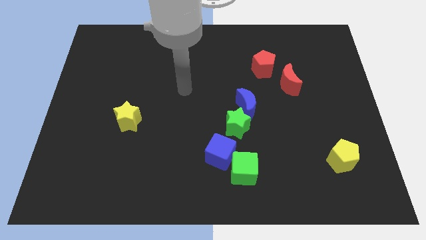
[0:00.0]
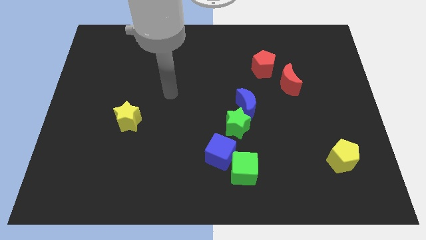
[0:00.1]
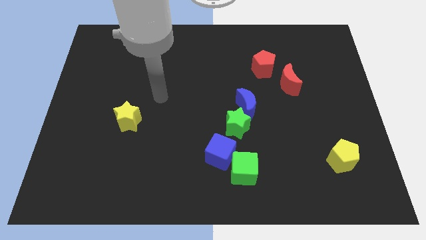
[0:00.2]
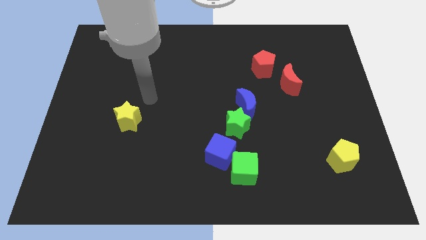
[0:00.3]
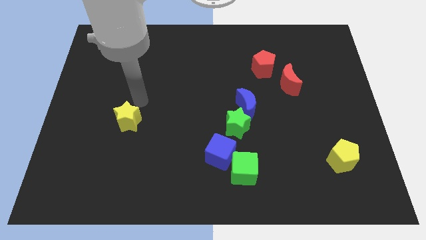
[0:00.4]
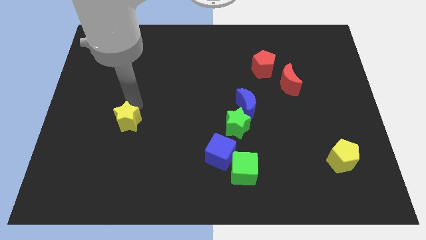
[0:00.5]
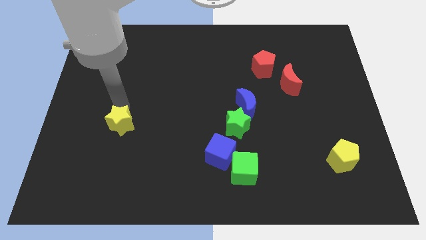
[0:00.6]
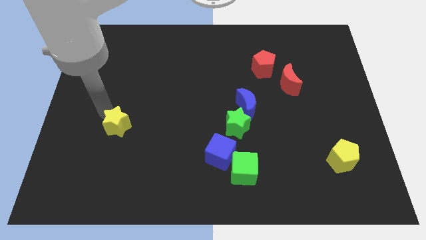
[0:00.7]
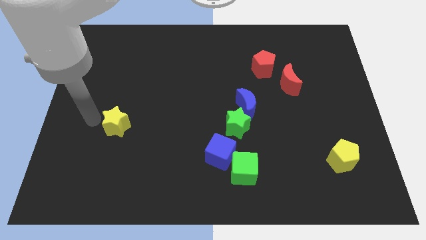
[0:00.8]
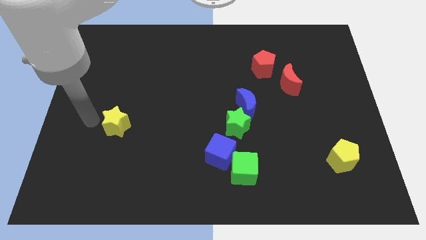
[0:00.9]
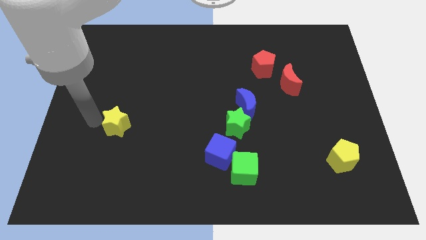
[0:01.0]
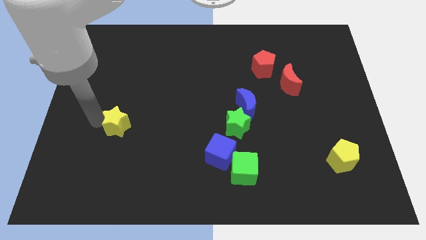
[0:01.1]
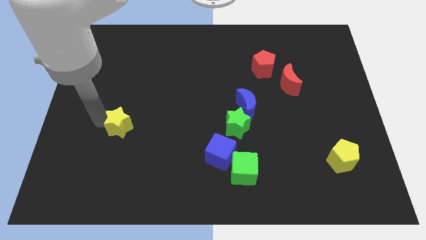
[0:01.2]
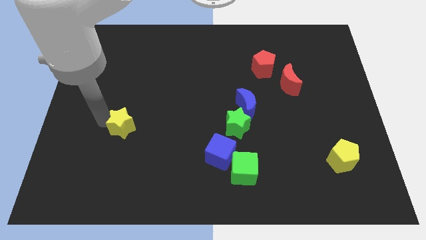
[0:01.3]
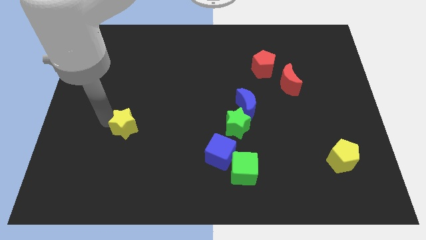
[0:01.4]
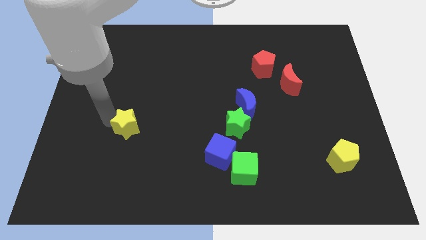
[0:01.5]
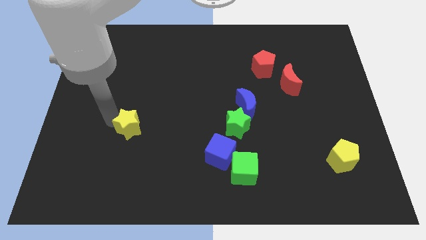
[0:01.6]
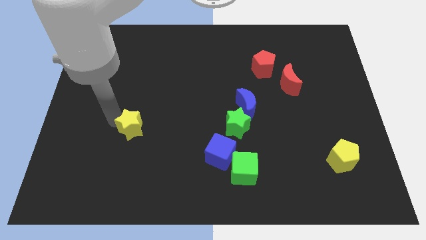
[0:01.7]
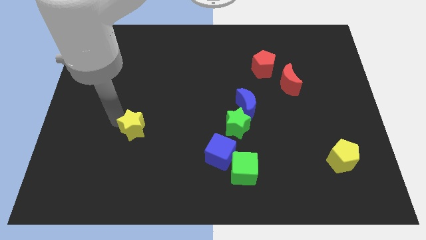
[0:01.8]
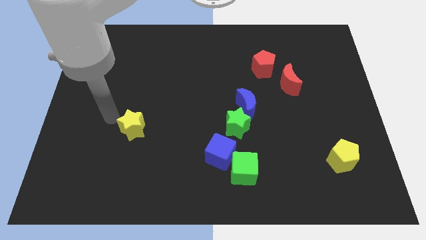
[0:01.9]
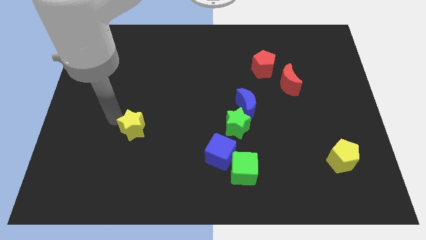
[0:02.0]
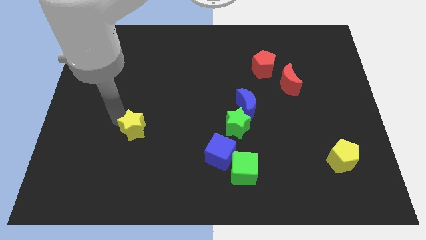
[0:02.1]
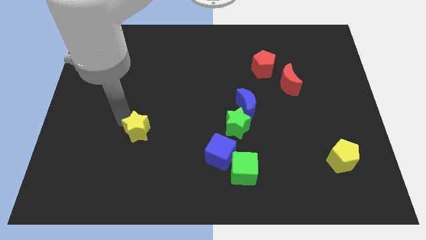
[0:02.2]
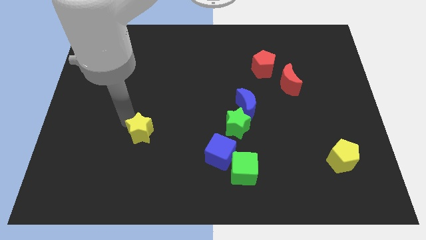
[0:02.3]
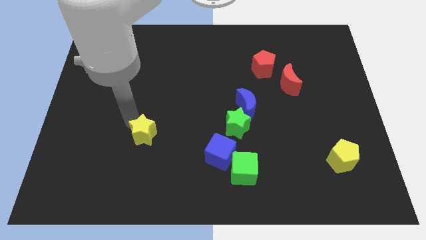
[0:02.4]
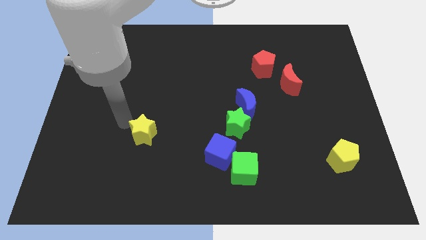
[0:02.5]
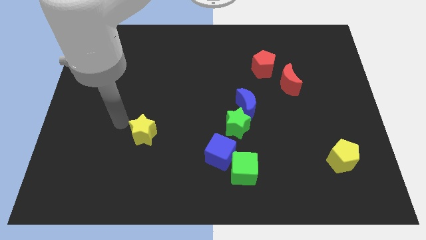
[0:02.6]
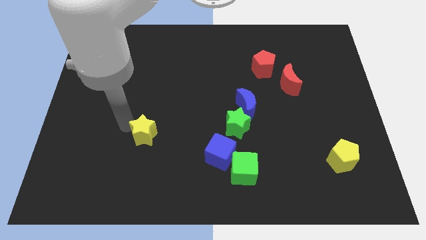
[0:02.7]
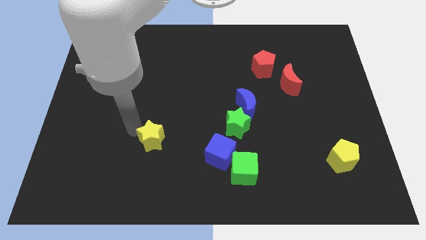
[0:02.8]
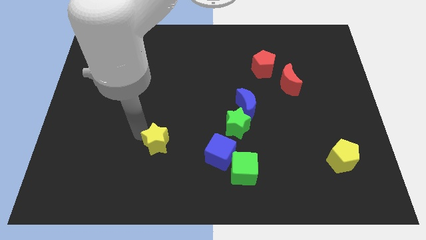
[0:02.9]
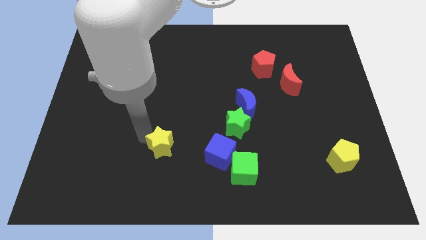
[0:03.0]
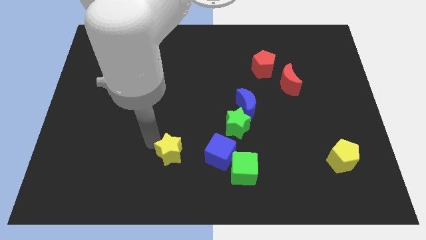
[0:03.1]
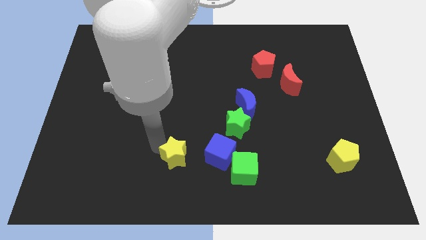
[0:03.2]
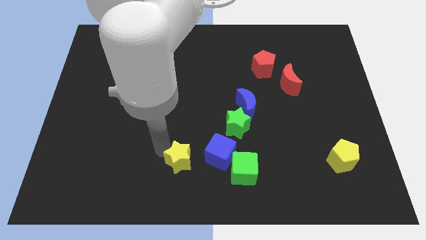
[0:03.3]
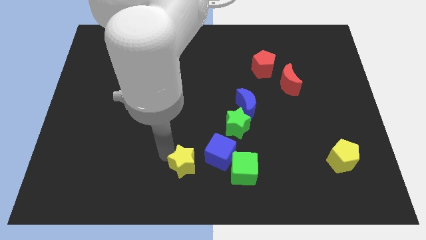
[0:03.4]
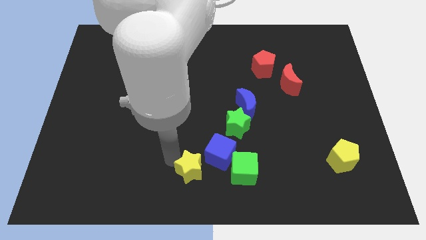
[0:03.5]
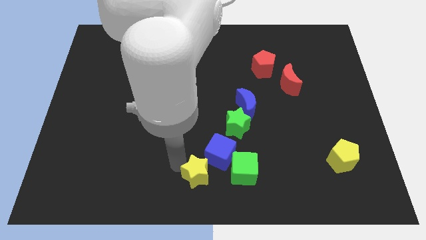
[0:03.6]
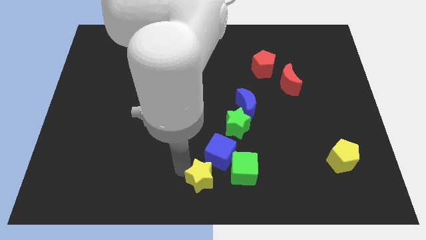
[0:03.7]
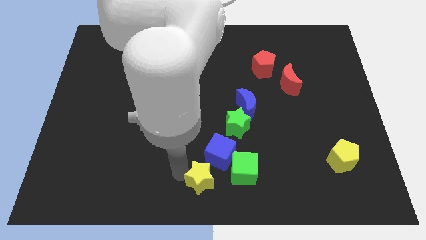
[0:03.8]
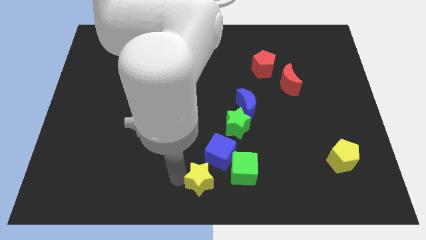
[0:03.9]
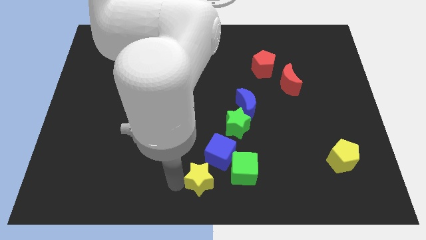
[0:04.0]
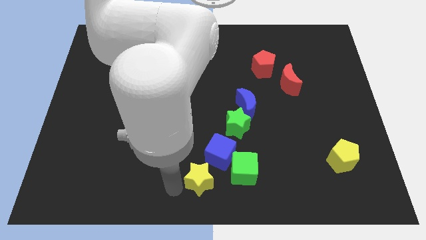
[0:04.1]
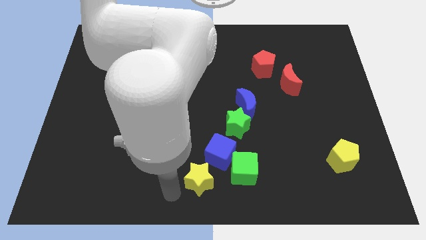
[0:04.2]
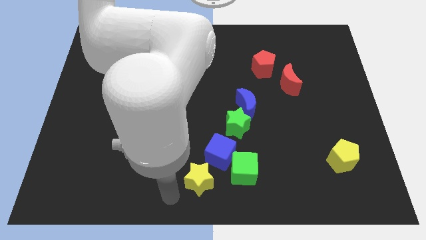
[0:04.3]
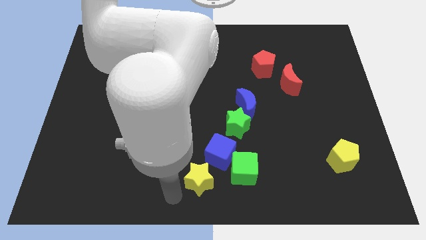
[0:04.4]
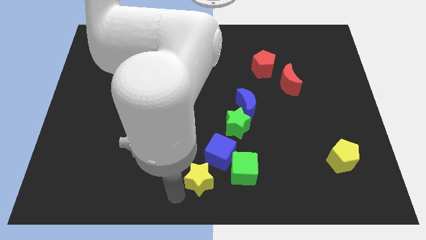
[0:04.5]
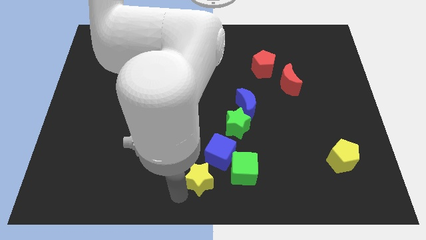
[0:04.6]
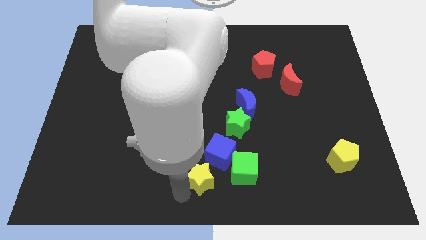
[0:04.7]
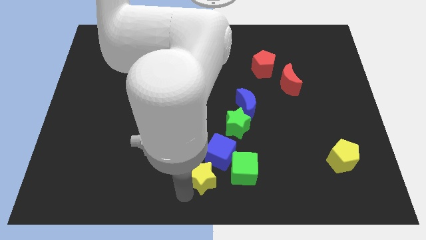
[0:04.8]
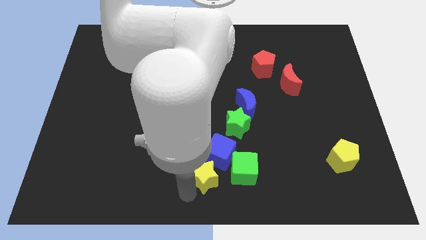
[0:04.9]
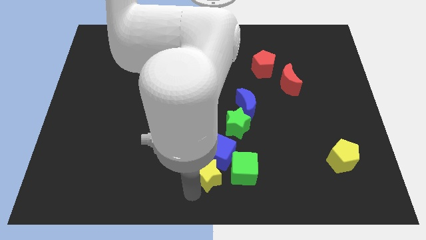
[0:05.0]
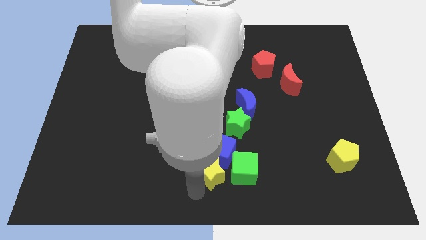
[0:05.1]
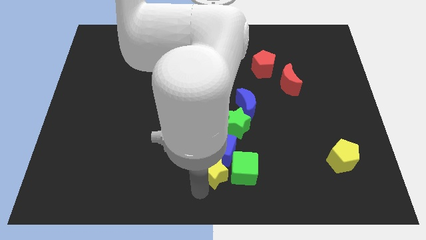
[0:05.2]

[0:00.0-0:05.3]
slide the yellow star to the green cube

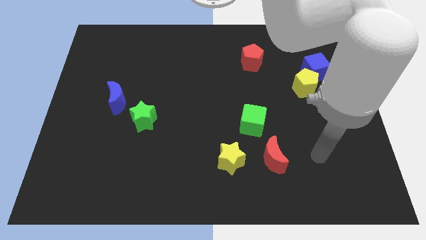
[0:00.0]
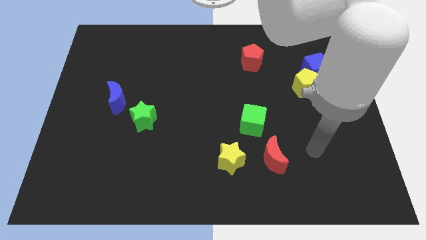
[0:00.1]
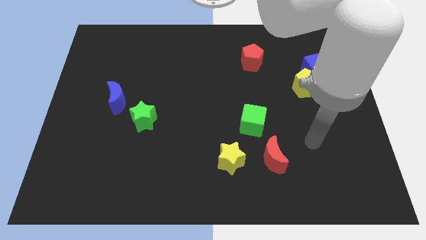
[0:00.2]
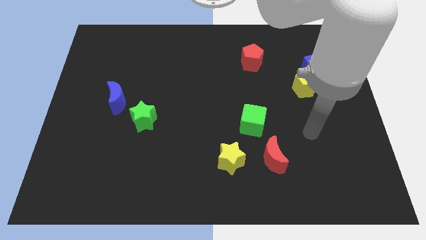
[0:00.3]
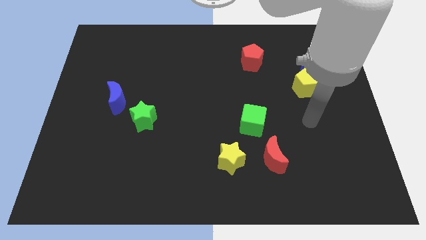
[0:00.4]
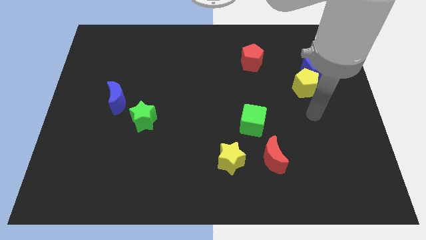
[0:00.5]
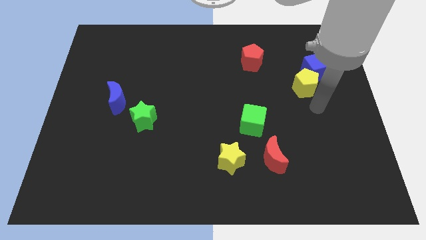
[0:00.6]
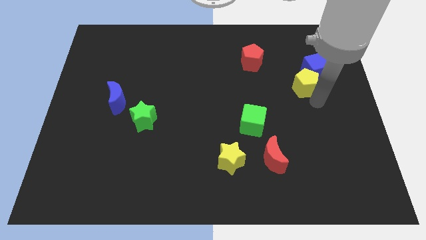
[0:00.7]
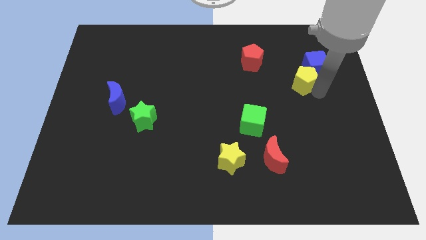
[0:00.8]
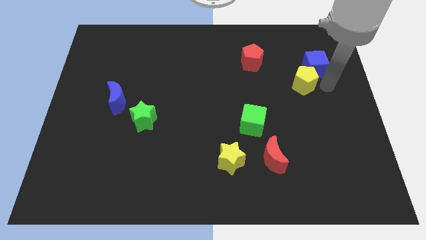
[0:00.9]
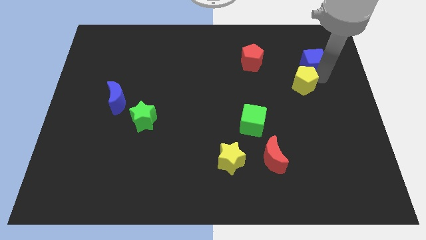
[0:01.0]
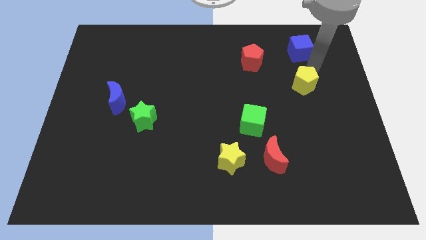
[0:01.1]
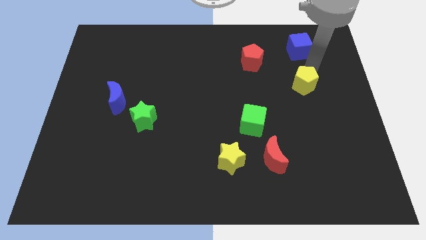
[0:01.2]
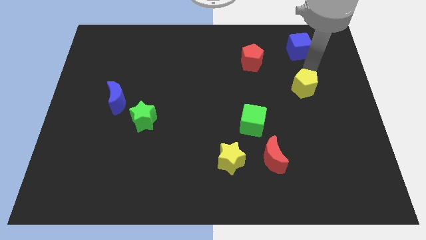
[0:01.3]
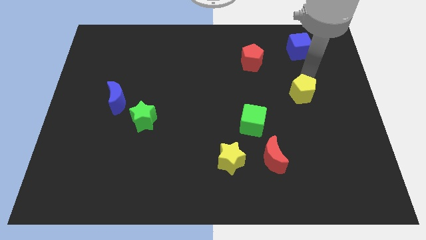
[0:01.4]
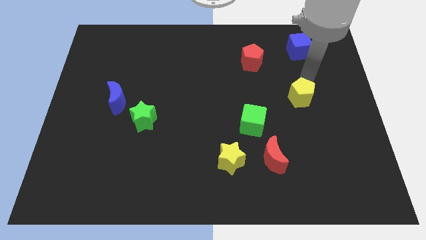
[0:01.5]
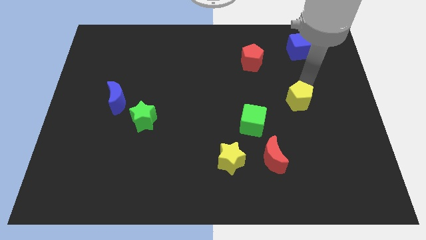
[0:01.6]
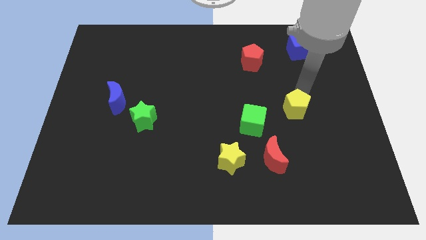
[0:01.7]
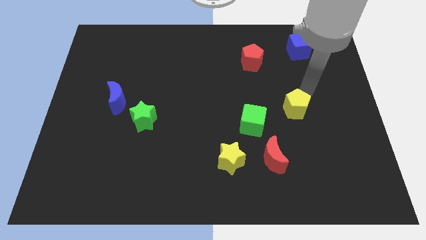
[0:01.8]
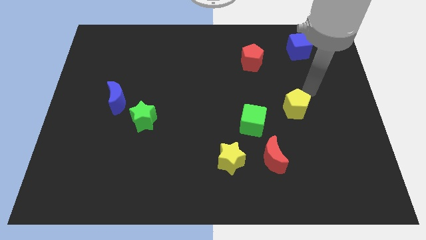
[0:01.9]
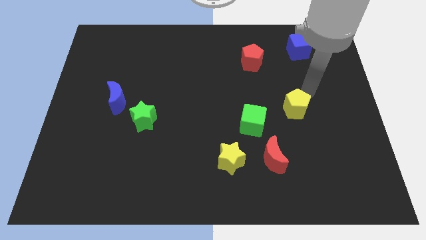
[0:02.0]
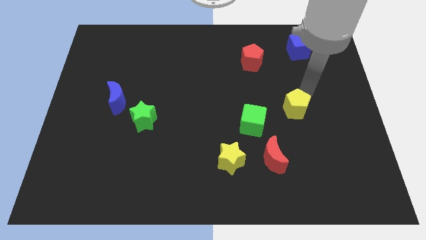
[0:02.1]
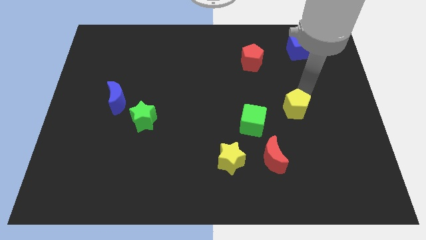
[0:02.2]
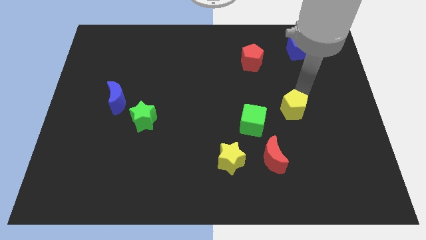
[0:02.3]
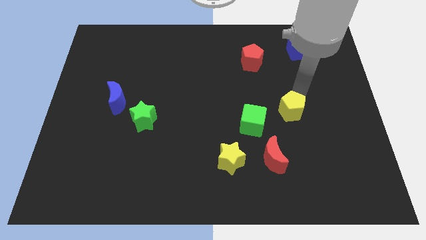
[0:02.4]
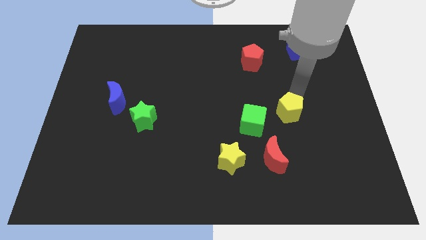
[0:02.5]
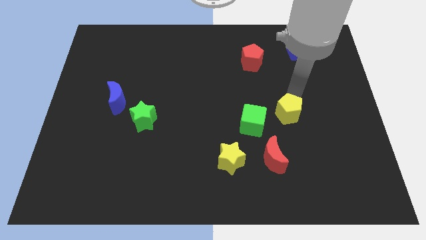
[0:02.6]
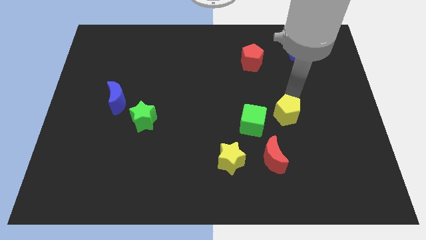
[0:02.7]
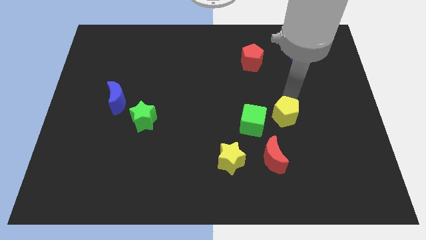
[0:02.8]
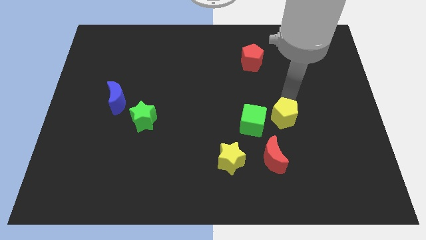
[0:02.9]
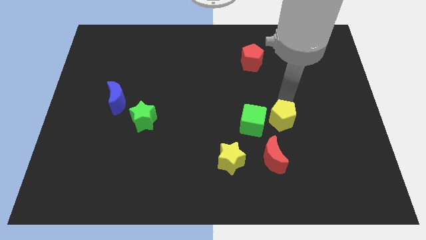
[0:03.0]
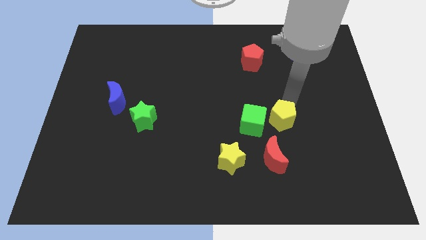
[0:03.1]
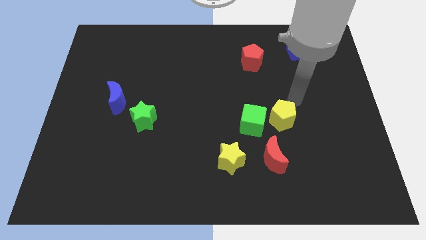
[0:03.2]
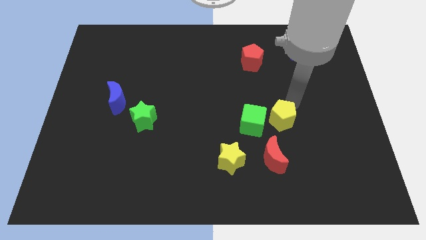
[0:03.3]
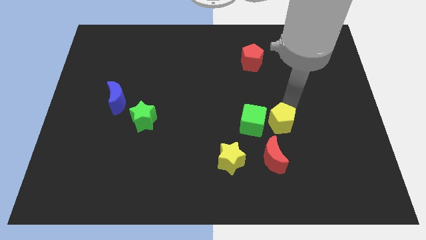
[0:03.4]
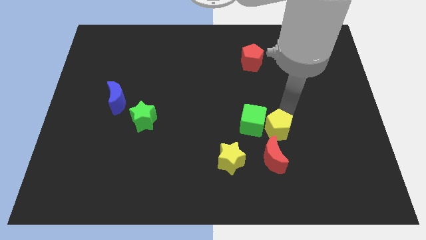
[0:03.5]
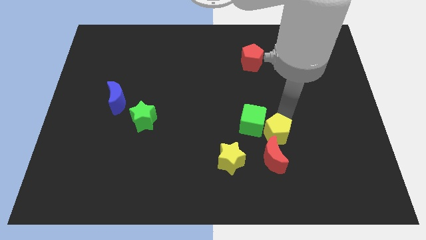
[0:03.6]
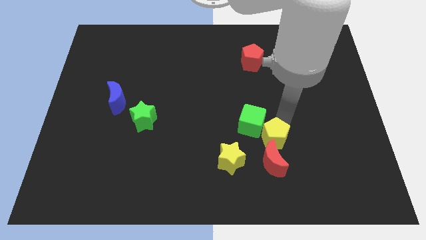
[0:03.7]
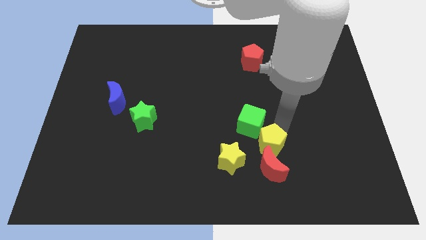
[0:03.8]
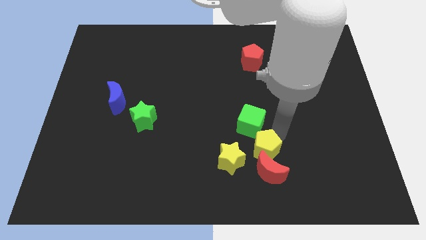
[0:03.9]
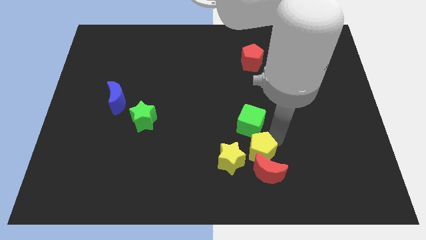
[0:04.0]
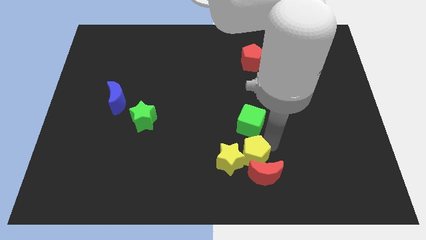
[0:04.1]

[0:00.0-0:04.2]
put the yellow pentagon to the yellow star
